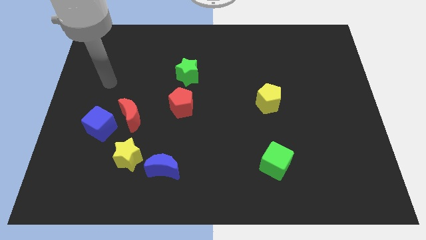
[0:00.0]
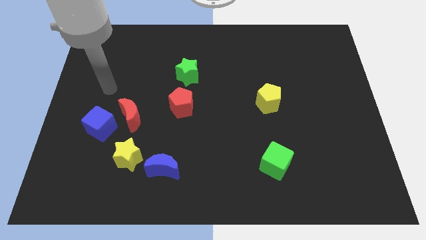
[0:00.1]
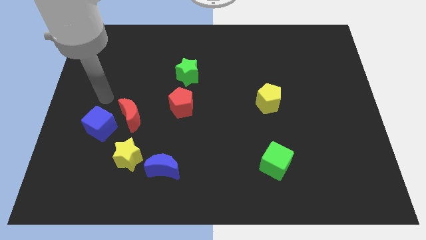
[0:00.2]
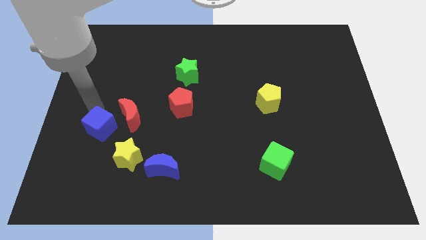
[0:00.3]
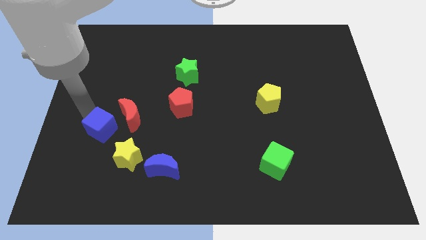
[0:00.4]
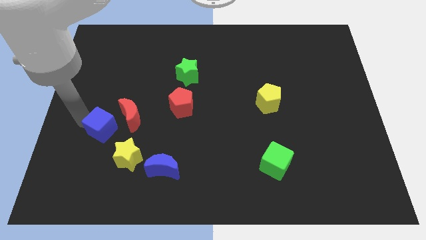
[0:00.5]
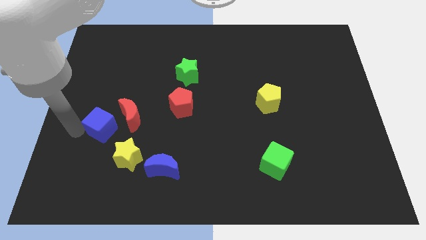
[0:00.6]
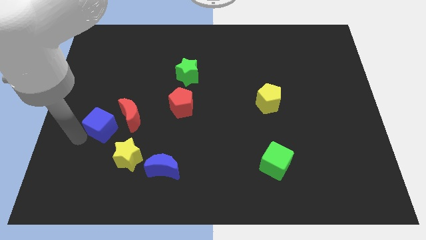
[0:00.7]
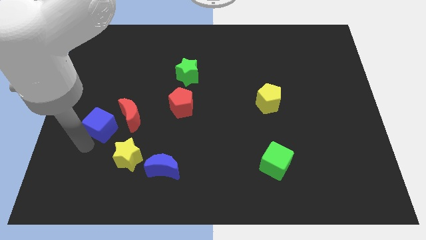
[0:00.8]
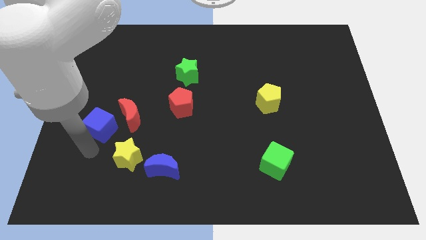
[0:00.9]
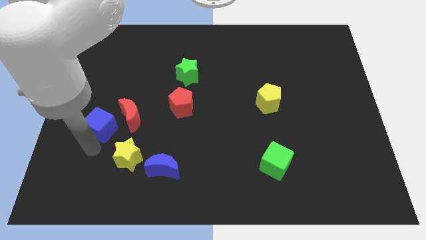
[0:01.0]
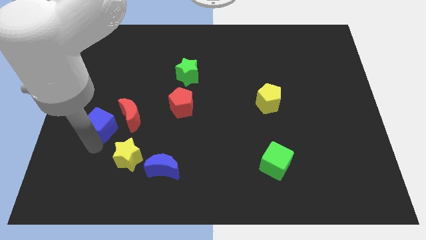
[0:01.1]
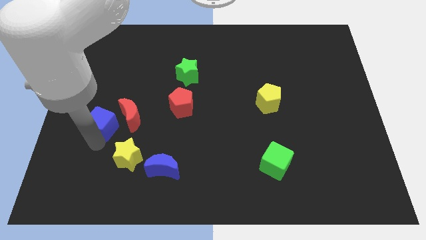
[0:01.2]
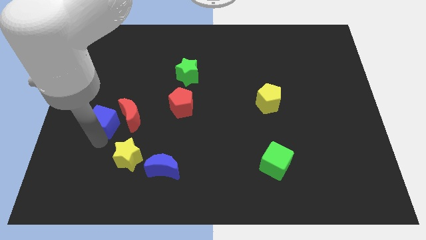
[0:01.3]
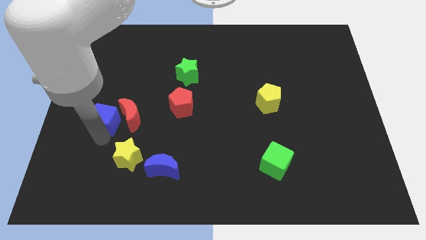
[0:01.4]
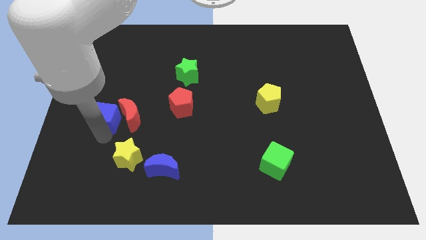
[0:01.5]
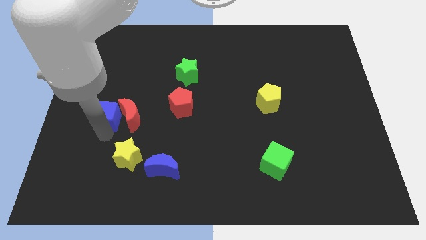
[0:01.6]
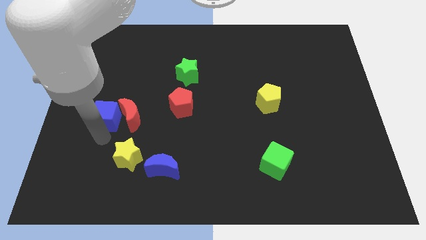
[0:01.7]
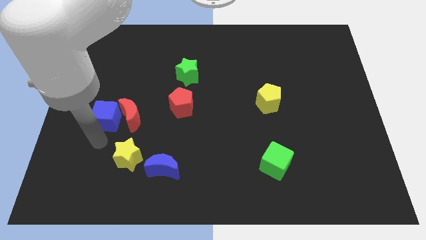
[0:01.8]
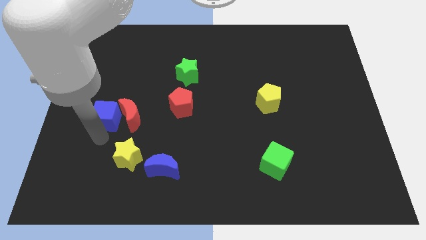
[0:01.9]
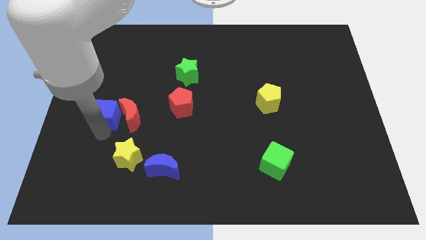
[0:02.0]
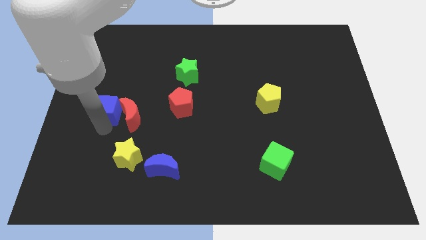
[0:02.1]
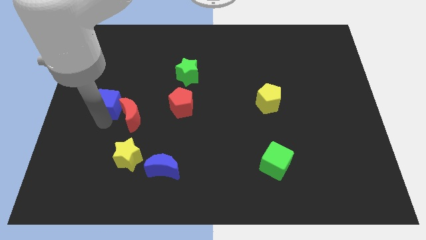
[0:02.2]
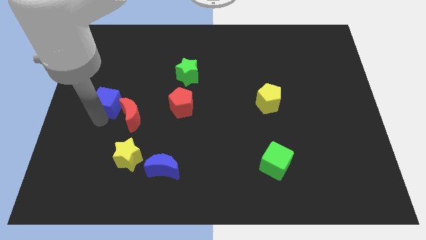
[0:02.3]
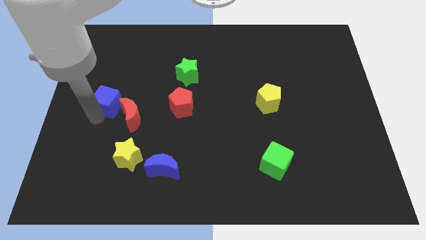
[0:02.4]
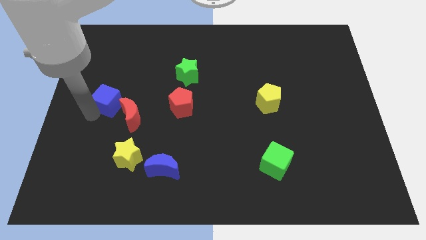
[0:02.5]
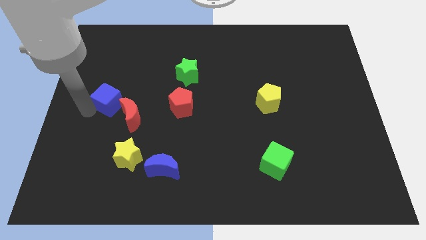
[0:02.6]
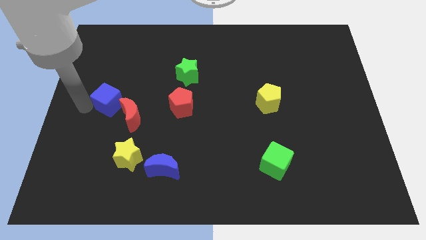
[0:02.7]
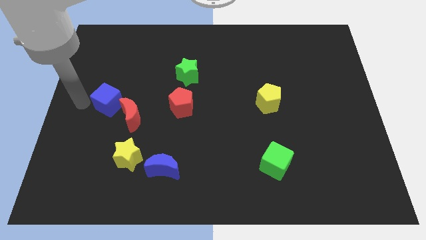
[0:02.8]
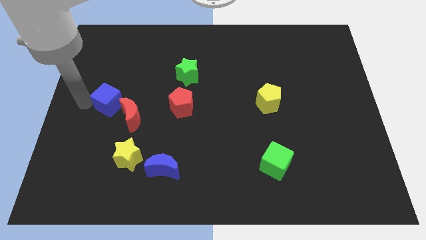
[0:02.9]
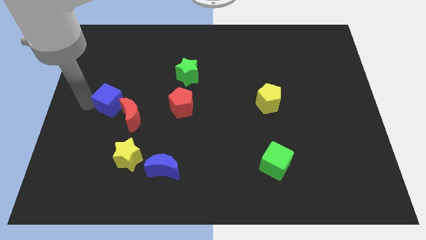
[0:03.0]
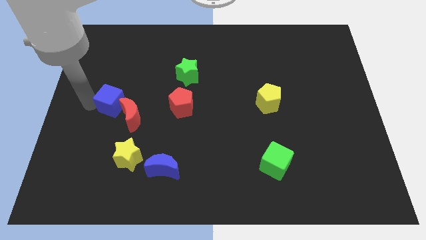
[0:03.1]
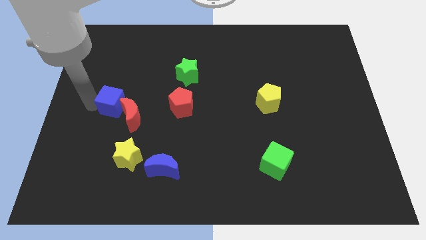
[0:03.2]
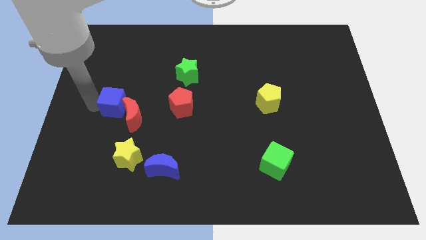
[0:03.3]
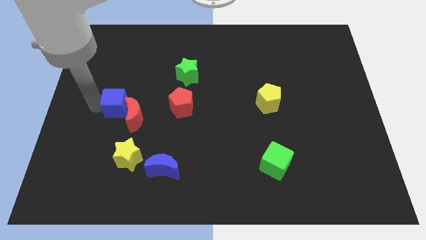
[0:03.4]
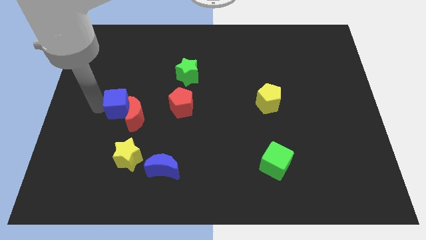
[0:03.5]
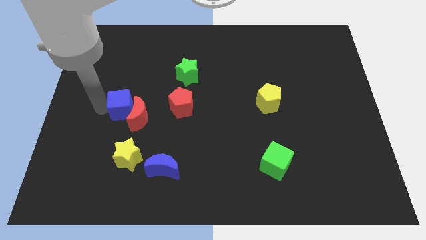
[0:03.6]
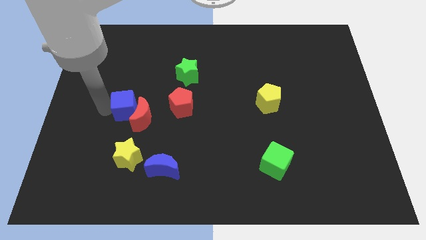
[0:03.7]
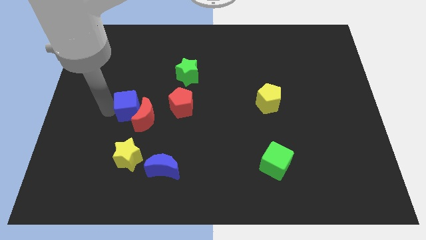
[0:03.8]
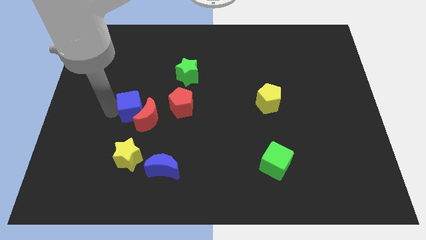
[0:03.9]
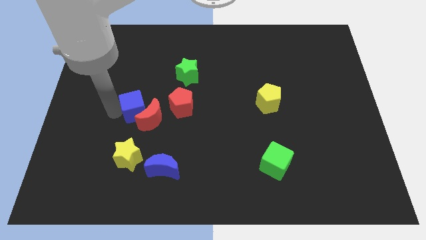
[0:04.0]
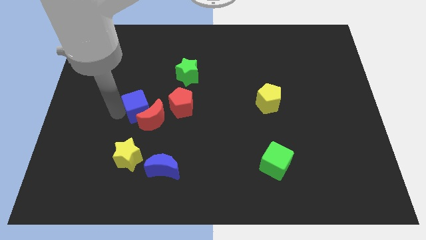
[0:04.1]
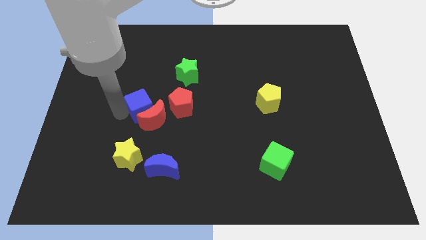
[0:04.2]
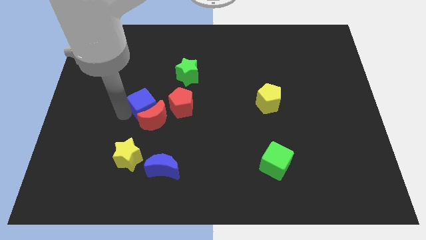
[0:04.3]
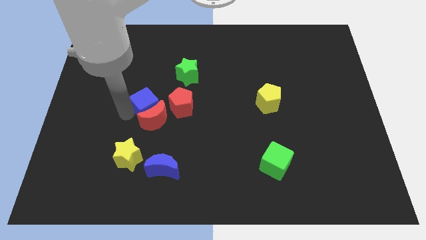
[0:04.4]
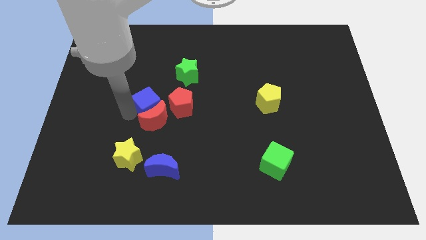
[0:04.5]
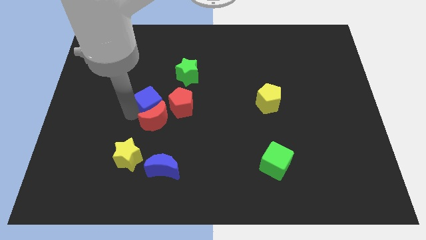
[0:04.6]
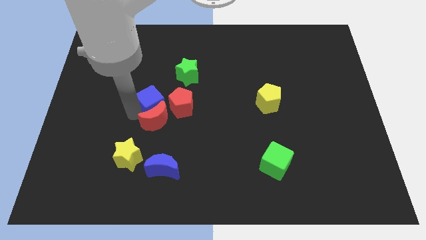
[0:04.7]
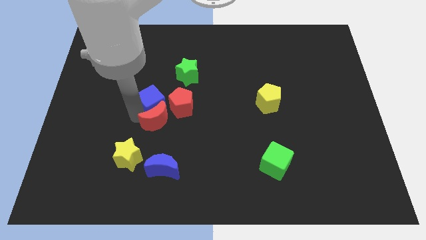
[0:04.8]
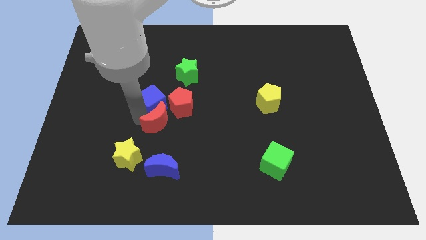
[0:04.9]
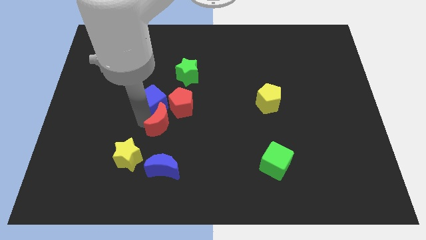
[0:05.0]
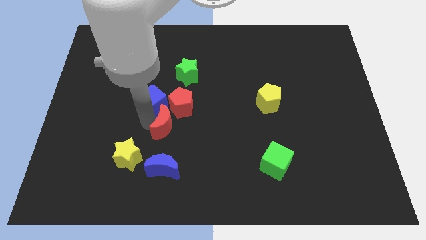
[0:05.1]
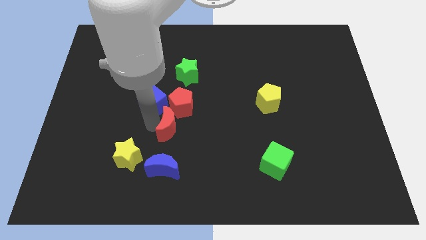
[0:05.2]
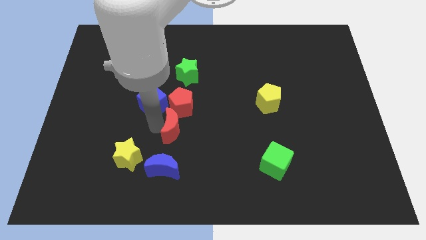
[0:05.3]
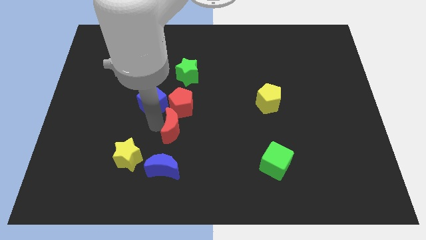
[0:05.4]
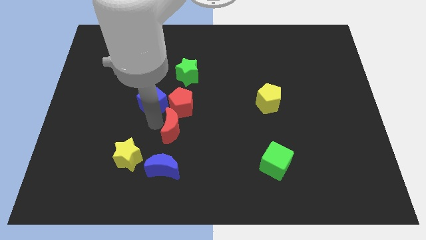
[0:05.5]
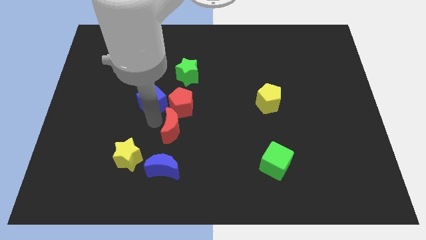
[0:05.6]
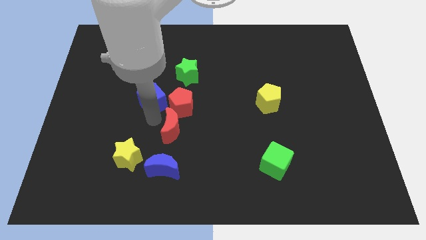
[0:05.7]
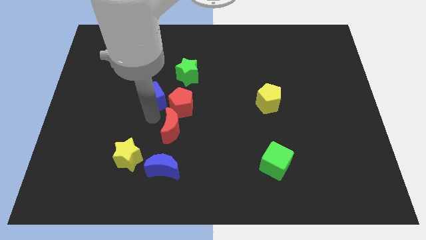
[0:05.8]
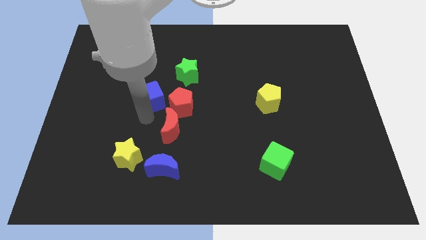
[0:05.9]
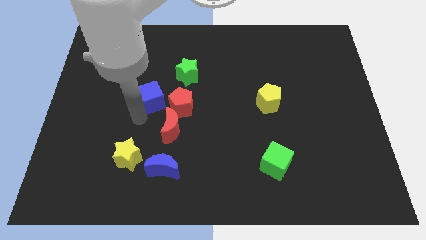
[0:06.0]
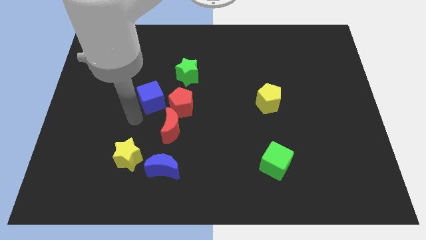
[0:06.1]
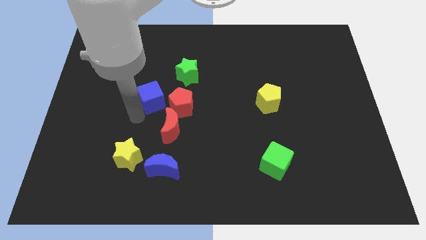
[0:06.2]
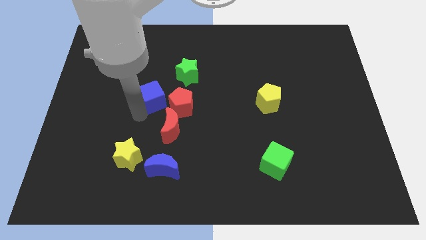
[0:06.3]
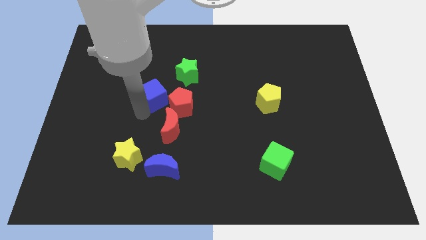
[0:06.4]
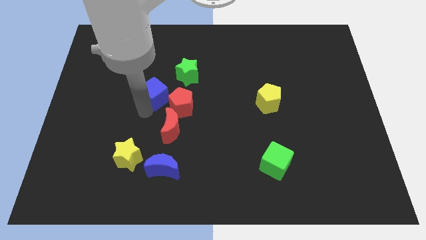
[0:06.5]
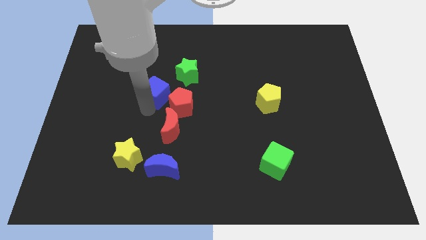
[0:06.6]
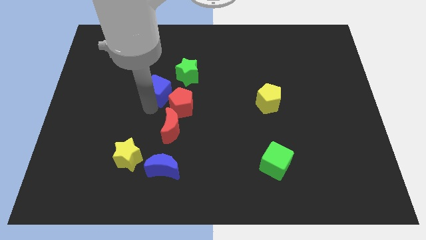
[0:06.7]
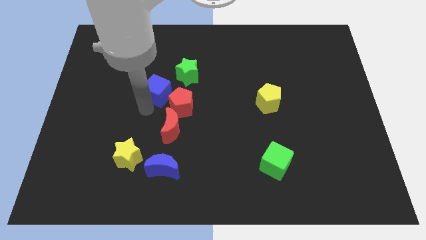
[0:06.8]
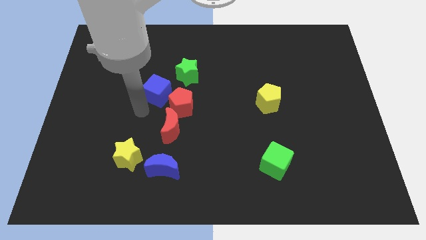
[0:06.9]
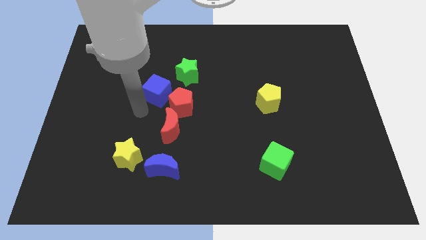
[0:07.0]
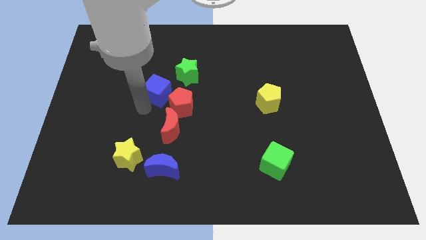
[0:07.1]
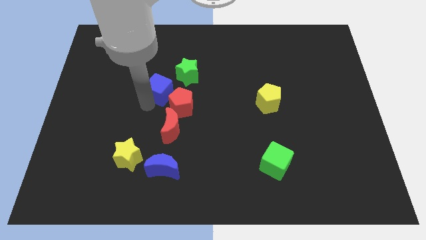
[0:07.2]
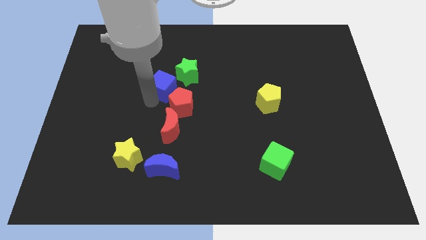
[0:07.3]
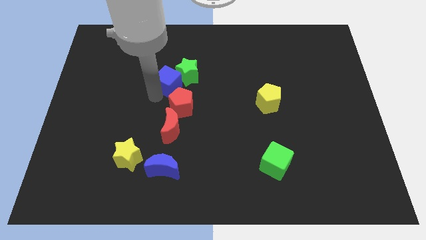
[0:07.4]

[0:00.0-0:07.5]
slide the blue cube towards the green star
